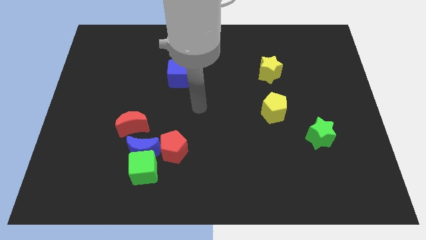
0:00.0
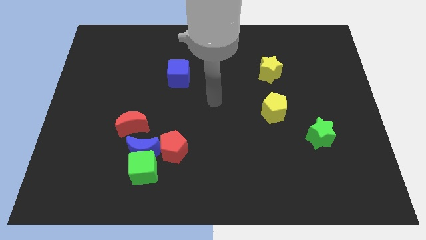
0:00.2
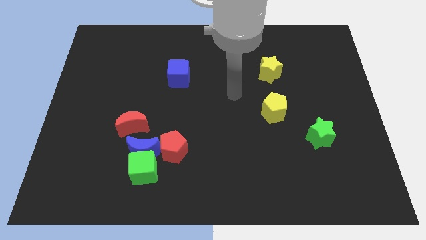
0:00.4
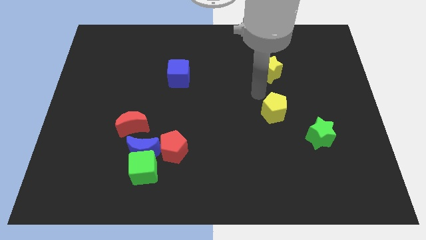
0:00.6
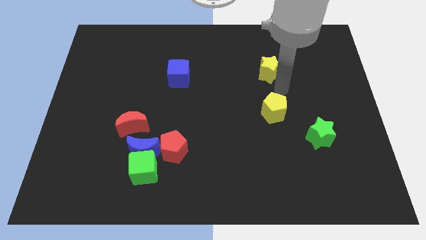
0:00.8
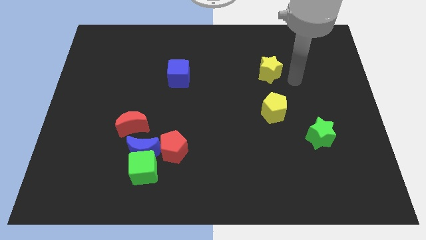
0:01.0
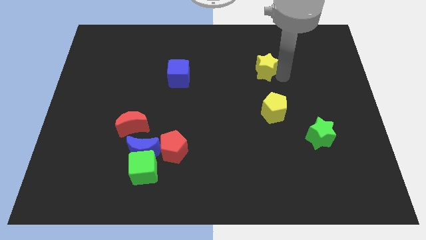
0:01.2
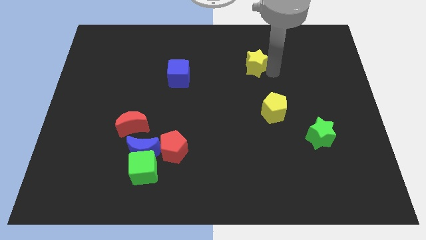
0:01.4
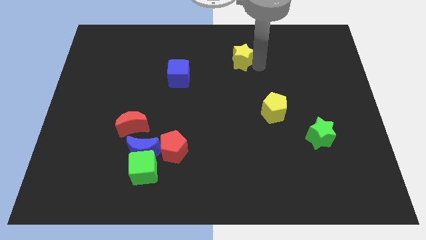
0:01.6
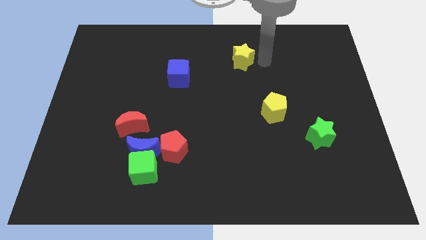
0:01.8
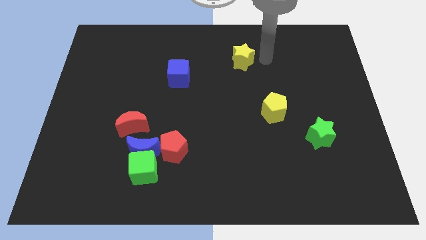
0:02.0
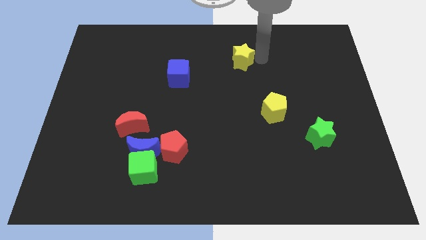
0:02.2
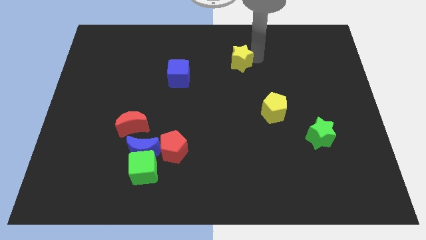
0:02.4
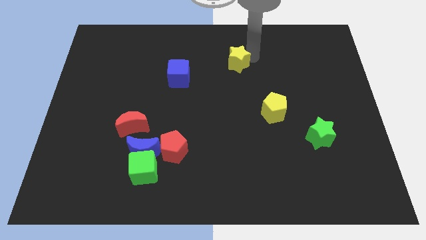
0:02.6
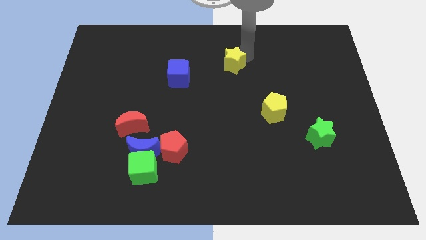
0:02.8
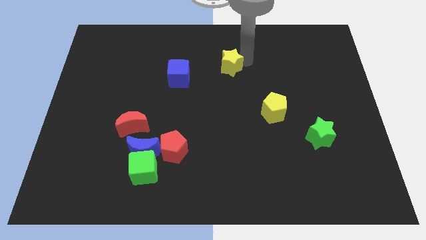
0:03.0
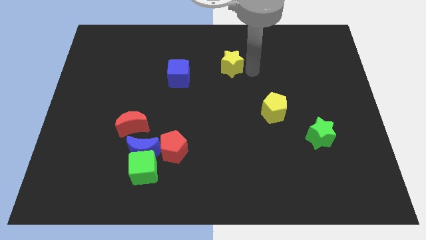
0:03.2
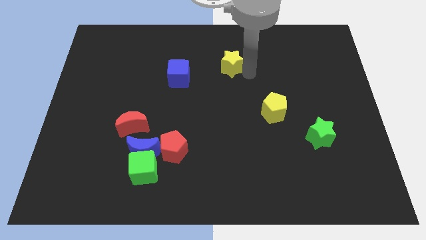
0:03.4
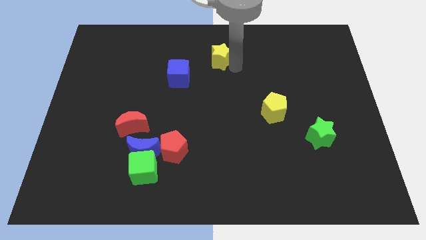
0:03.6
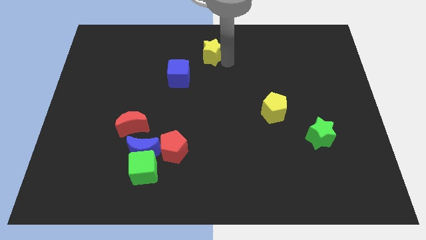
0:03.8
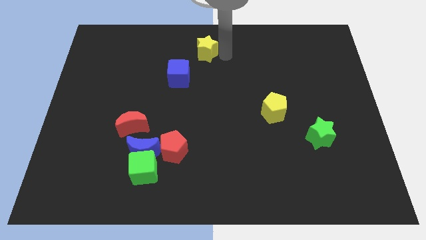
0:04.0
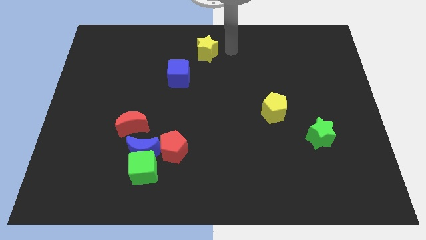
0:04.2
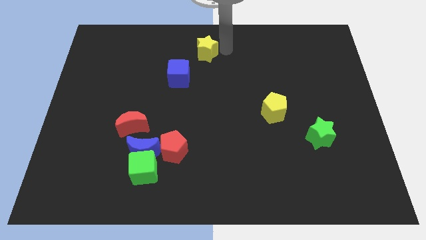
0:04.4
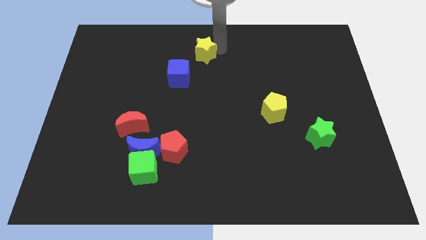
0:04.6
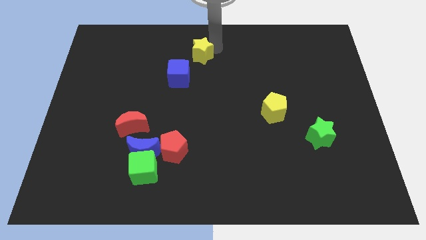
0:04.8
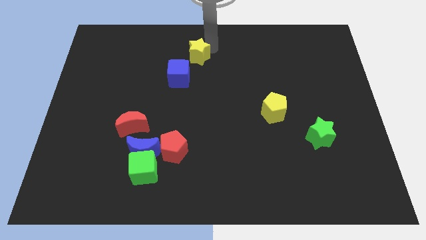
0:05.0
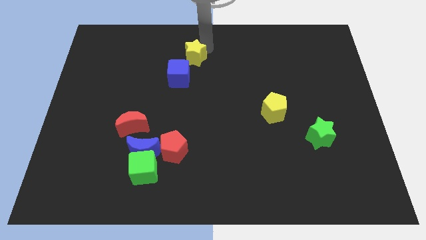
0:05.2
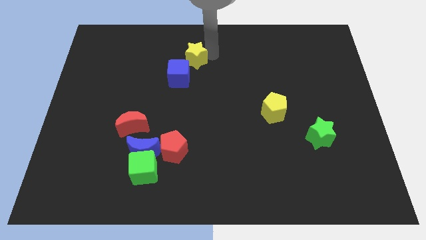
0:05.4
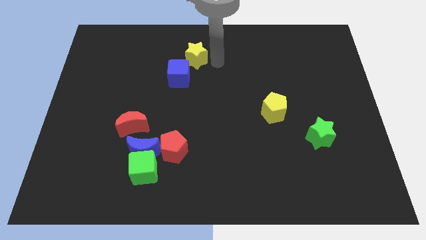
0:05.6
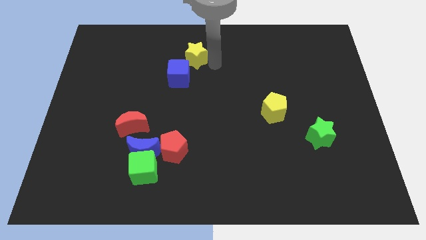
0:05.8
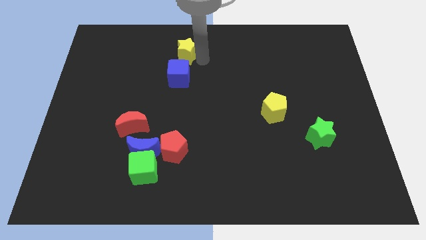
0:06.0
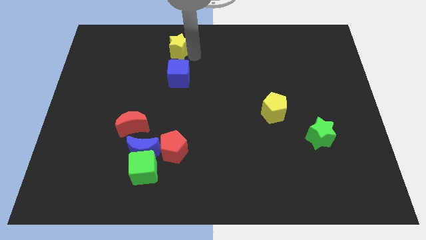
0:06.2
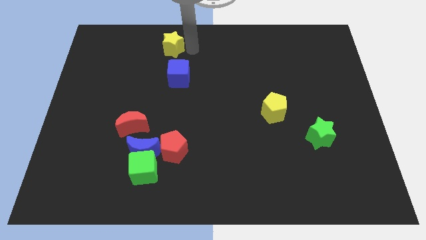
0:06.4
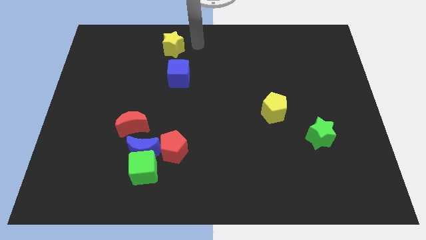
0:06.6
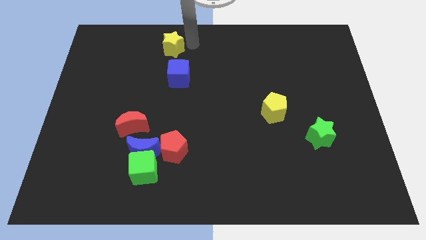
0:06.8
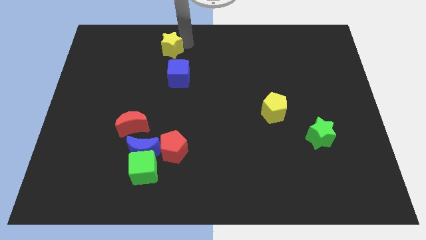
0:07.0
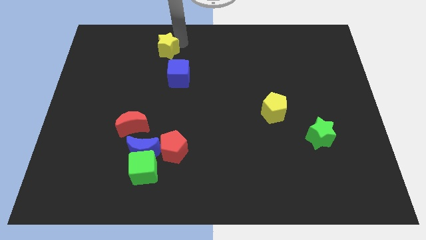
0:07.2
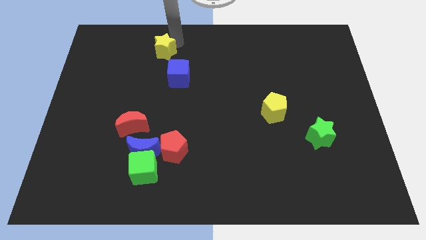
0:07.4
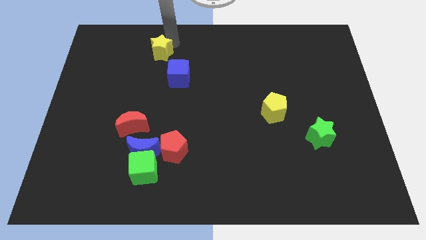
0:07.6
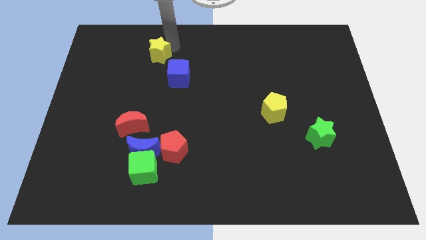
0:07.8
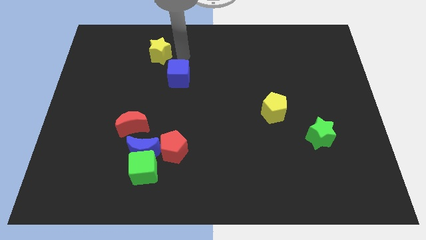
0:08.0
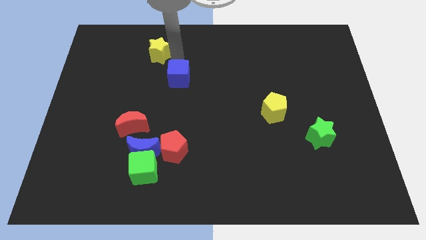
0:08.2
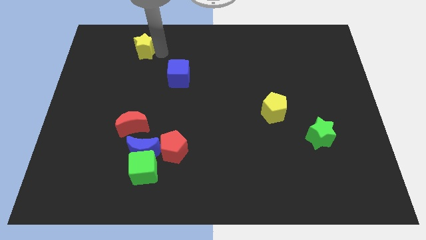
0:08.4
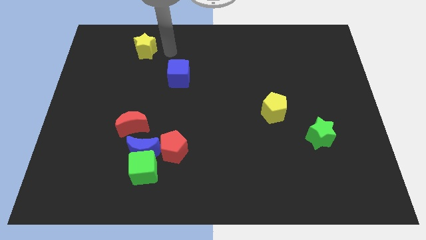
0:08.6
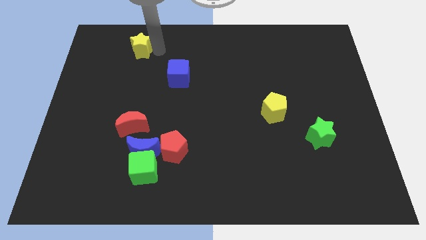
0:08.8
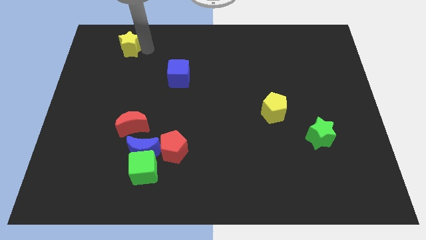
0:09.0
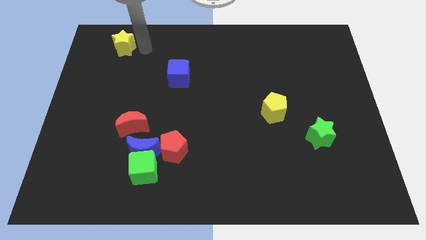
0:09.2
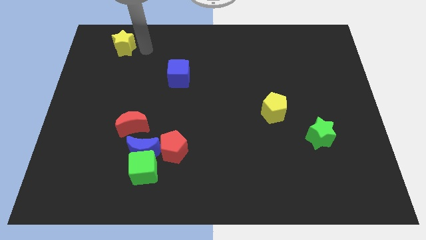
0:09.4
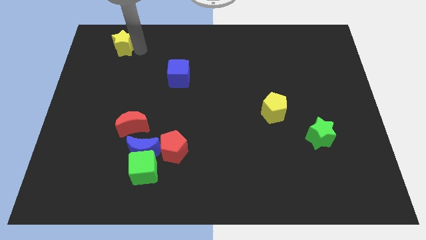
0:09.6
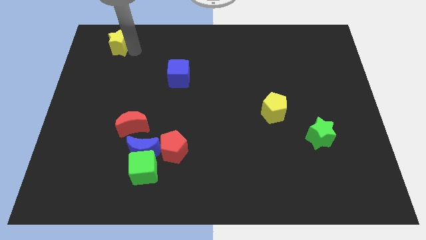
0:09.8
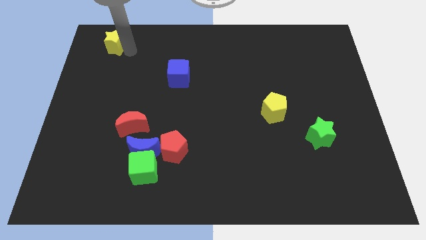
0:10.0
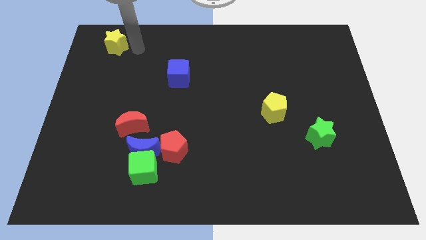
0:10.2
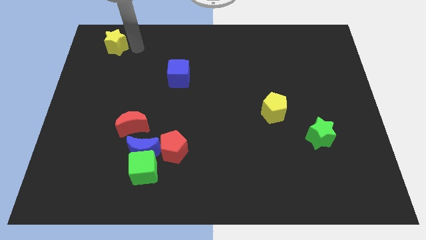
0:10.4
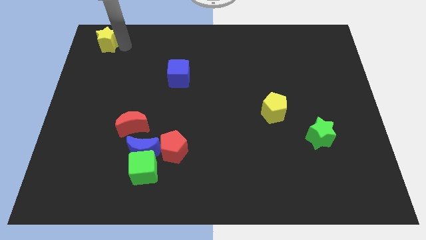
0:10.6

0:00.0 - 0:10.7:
slide the yellow star to the upper left corner

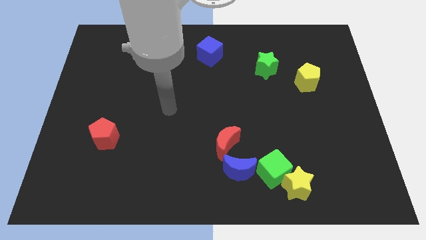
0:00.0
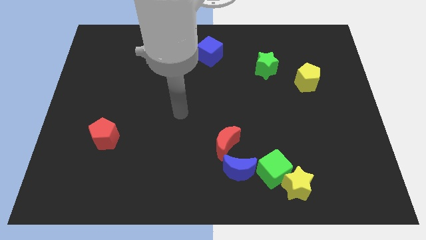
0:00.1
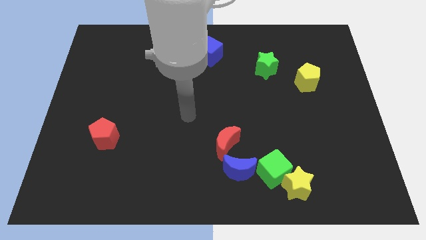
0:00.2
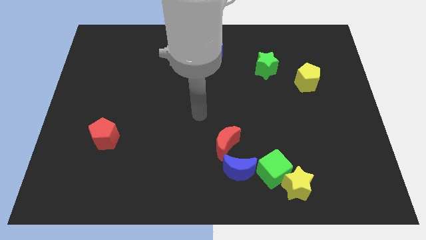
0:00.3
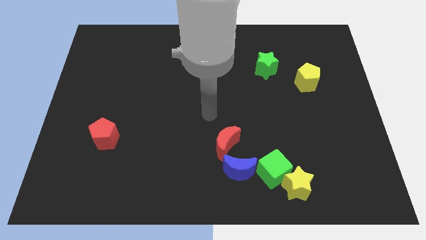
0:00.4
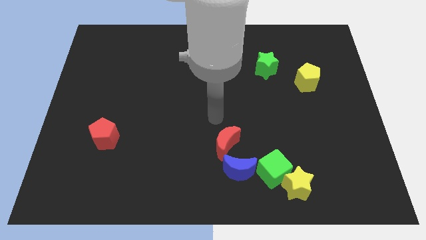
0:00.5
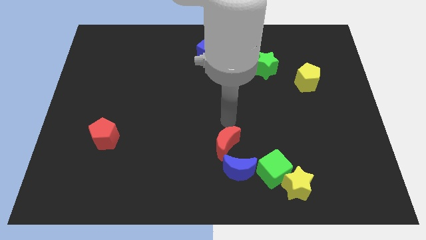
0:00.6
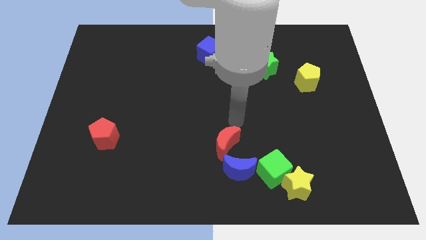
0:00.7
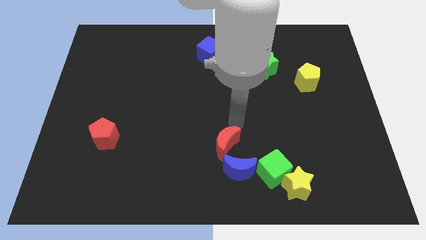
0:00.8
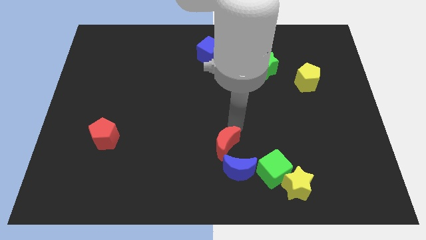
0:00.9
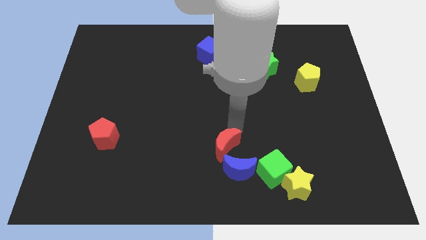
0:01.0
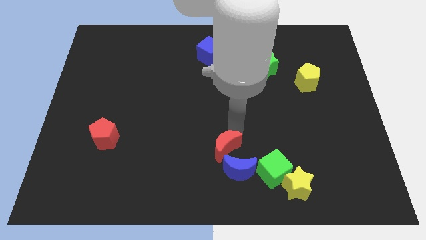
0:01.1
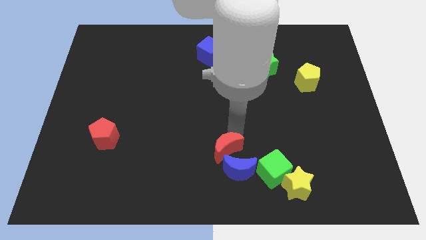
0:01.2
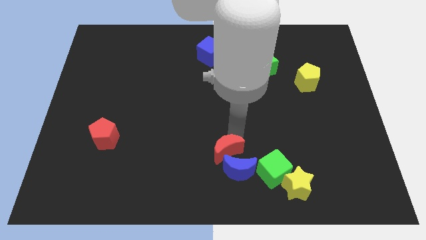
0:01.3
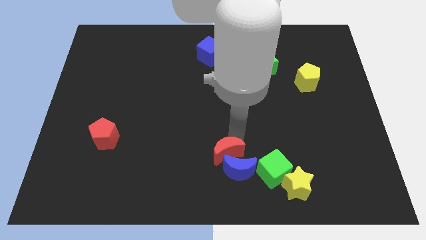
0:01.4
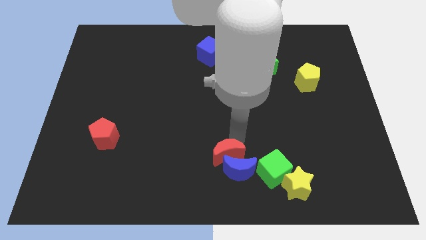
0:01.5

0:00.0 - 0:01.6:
slide the red moon to the bottom side
